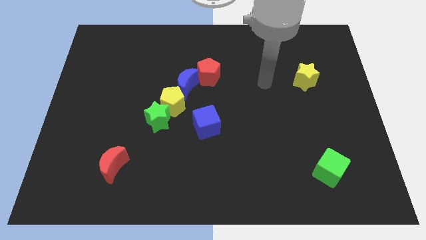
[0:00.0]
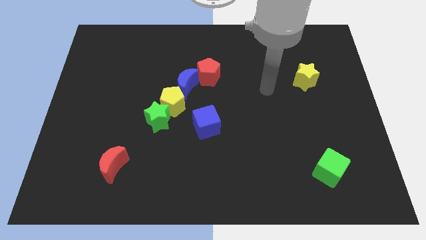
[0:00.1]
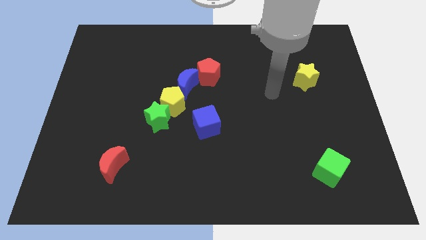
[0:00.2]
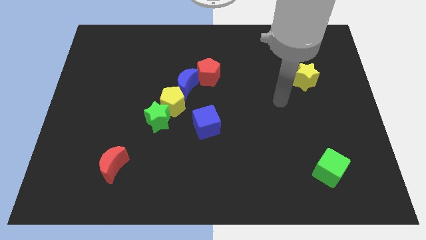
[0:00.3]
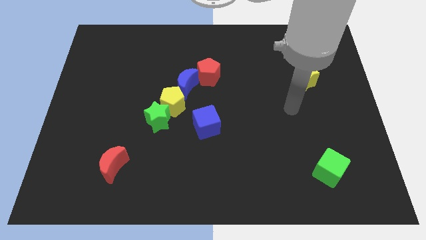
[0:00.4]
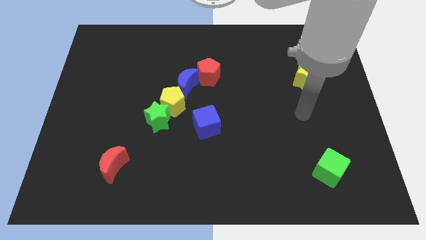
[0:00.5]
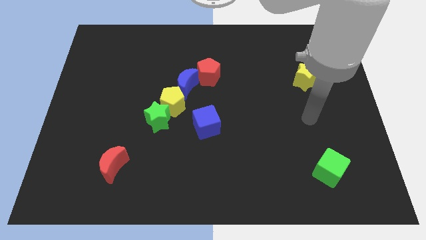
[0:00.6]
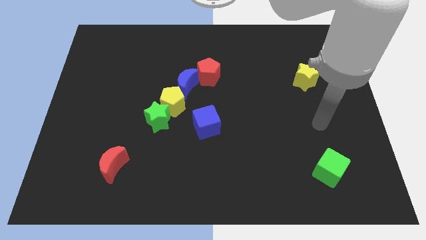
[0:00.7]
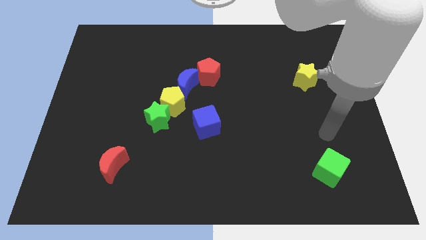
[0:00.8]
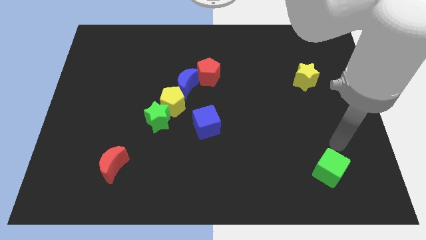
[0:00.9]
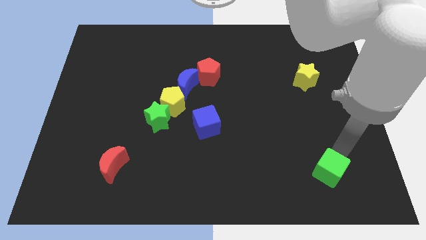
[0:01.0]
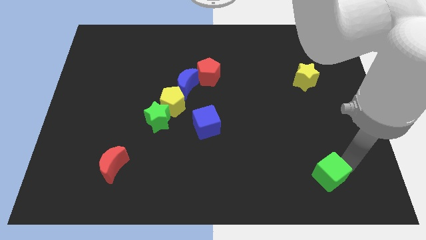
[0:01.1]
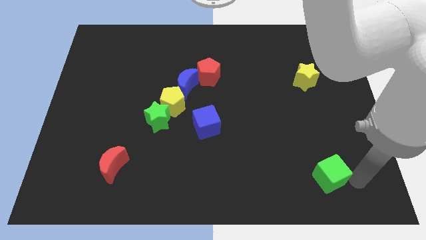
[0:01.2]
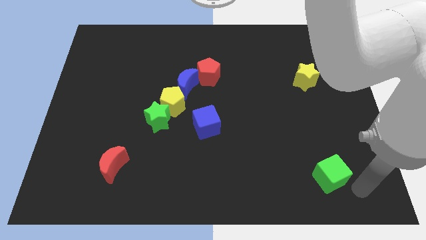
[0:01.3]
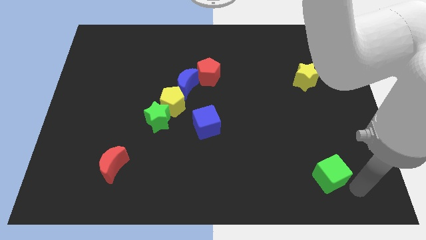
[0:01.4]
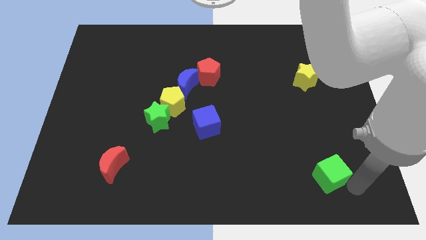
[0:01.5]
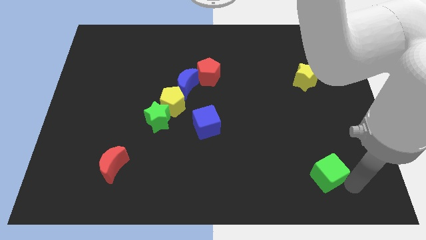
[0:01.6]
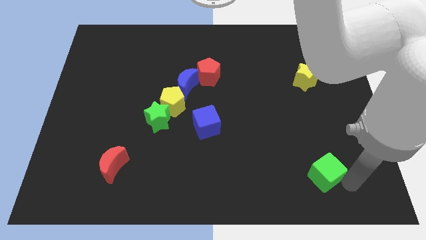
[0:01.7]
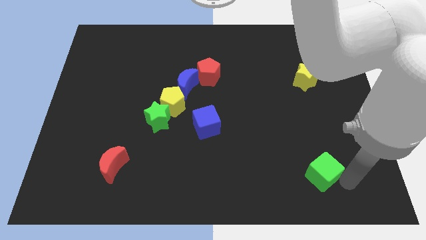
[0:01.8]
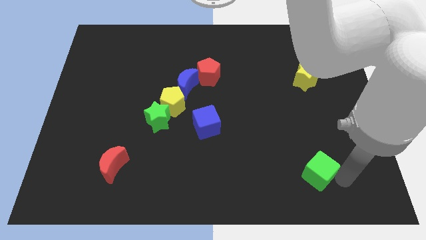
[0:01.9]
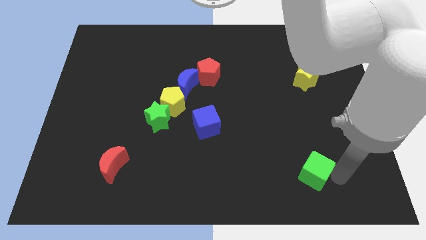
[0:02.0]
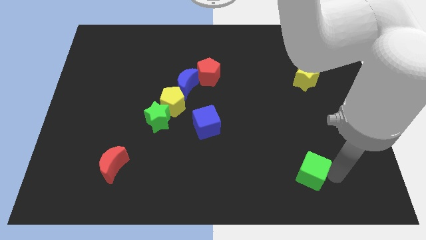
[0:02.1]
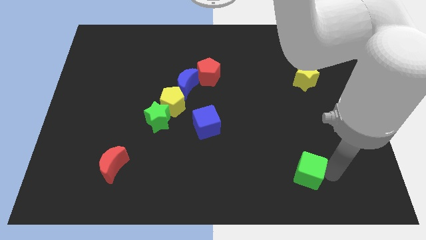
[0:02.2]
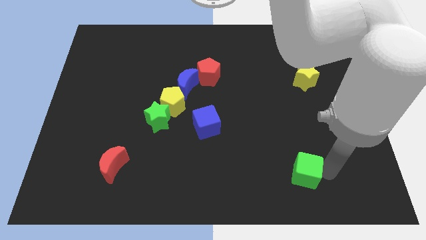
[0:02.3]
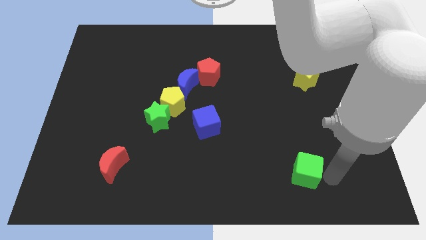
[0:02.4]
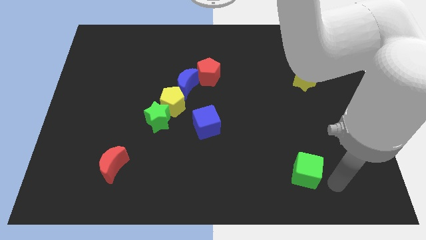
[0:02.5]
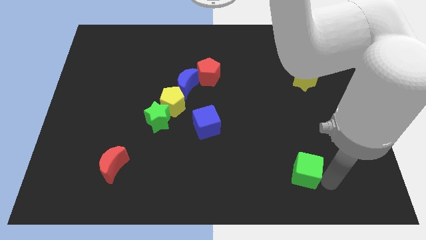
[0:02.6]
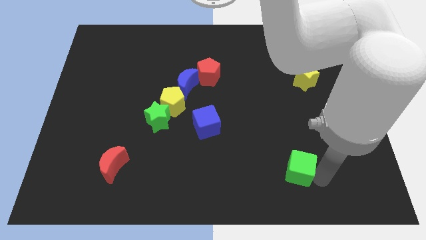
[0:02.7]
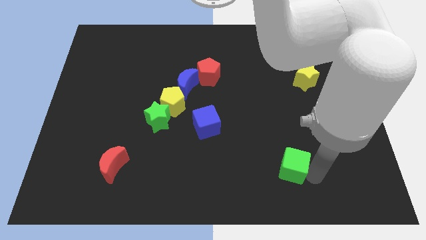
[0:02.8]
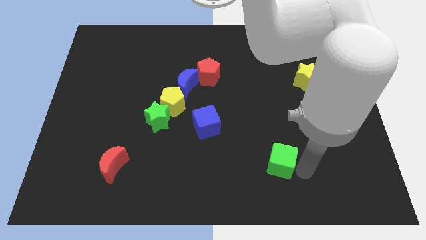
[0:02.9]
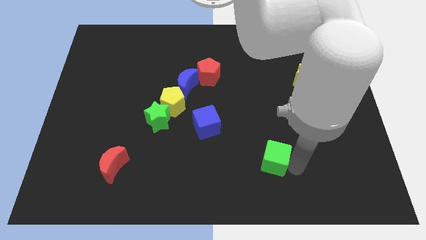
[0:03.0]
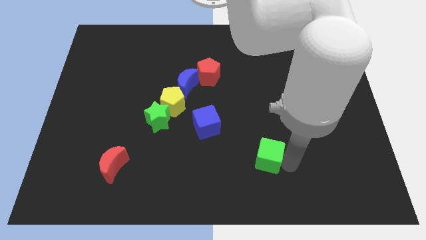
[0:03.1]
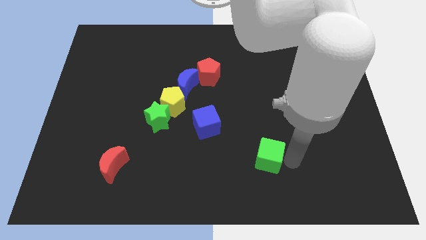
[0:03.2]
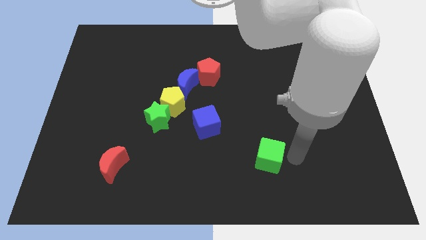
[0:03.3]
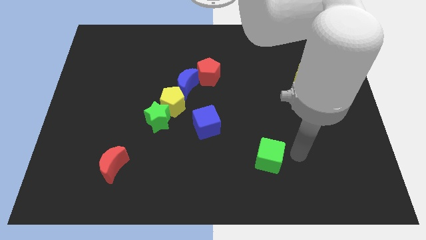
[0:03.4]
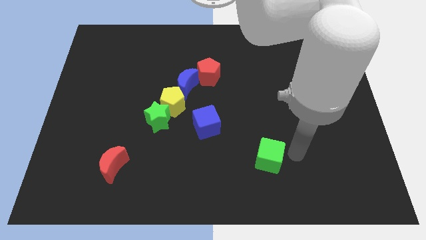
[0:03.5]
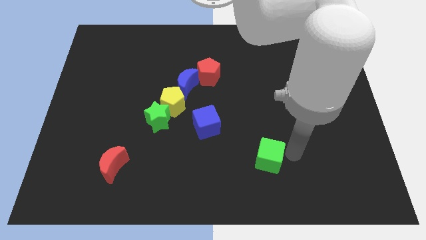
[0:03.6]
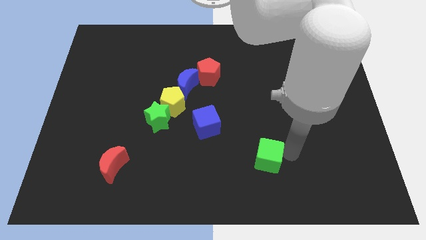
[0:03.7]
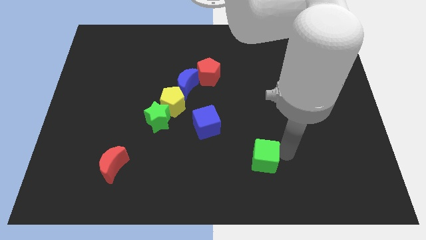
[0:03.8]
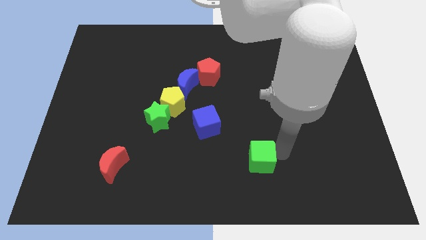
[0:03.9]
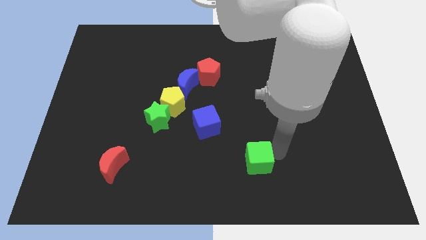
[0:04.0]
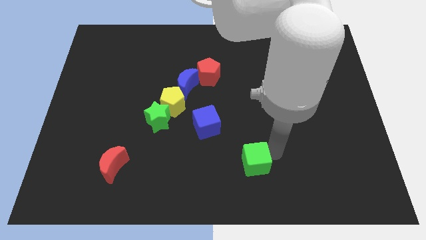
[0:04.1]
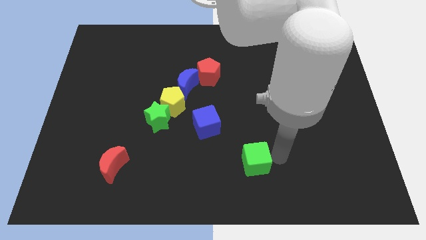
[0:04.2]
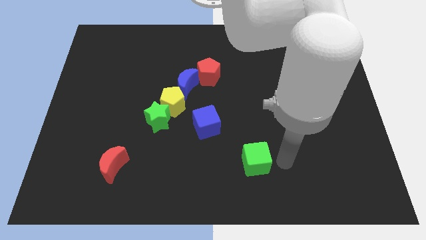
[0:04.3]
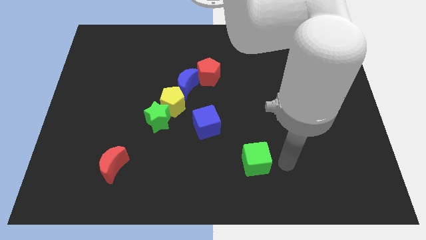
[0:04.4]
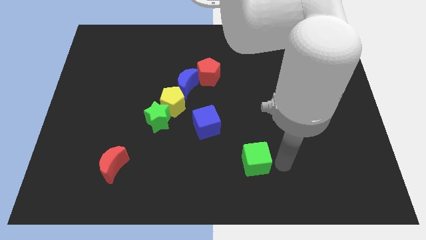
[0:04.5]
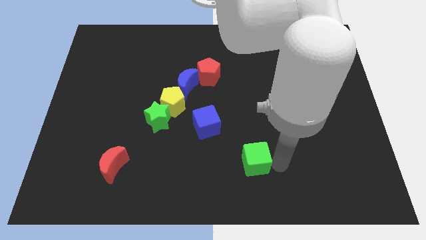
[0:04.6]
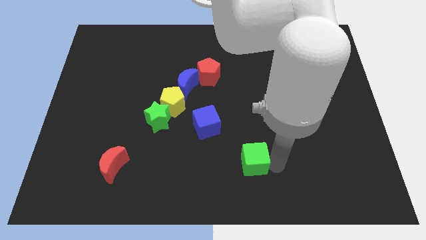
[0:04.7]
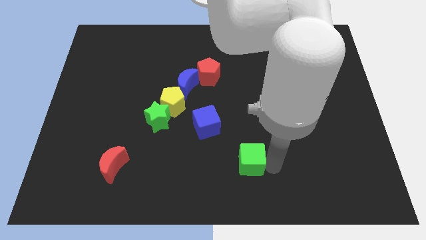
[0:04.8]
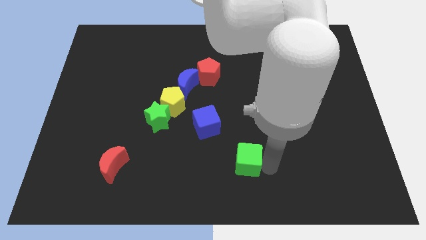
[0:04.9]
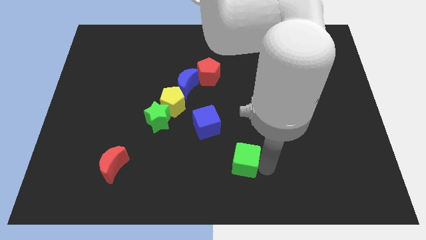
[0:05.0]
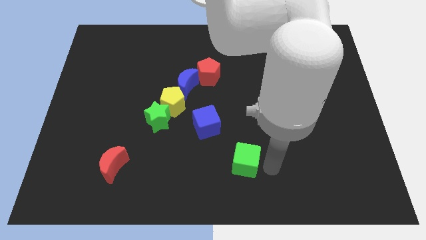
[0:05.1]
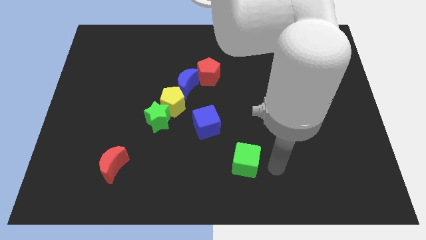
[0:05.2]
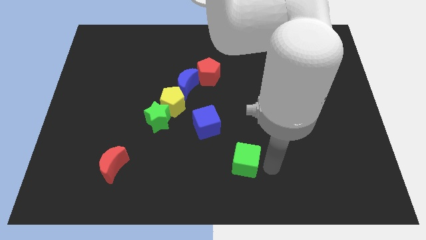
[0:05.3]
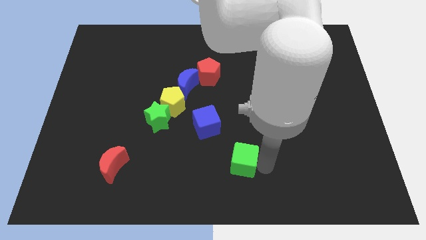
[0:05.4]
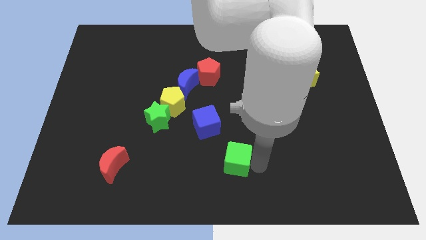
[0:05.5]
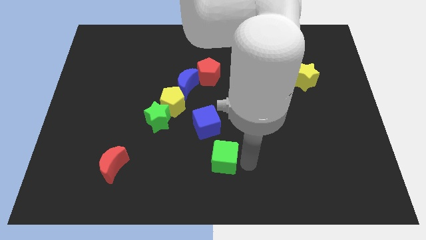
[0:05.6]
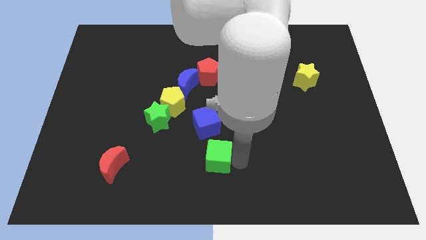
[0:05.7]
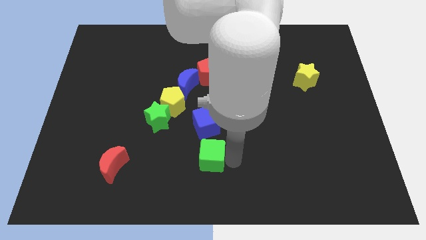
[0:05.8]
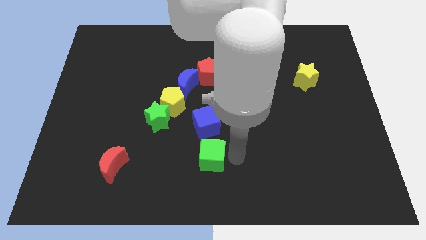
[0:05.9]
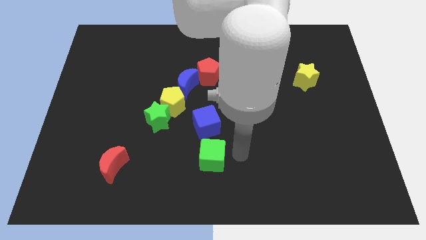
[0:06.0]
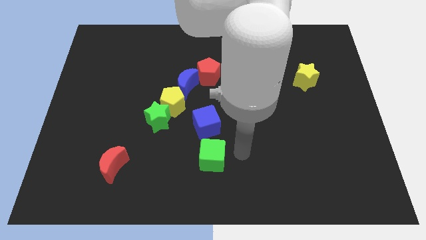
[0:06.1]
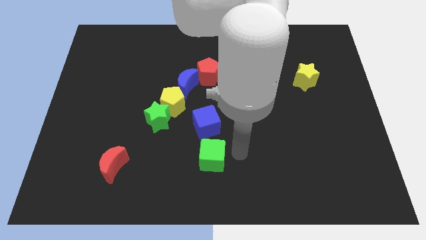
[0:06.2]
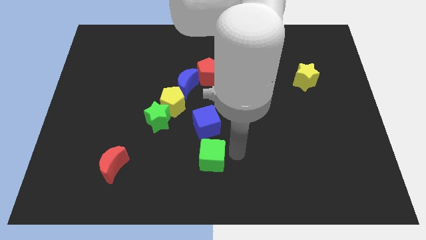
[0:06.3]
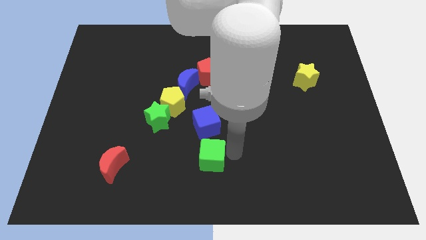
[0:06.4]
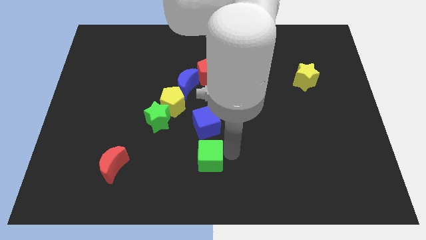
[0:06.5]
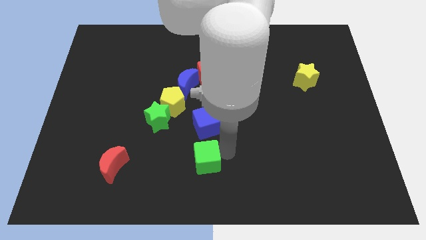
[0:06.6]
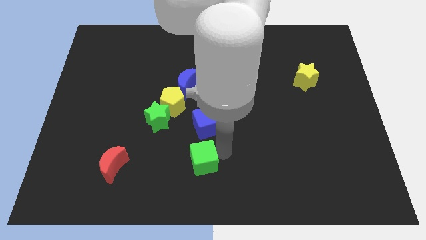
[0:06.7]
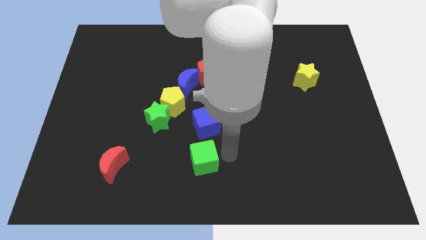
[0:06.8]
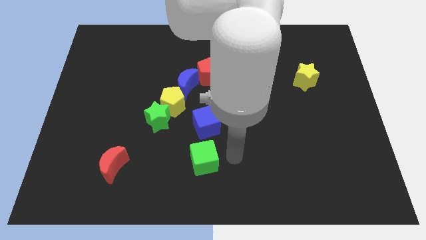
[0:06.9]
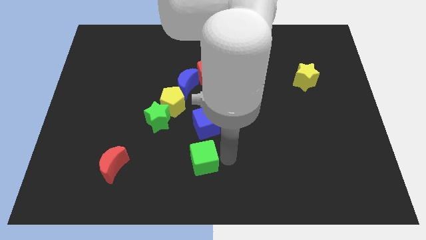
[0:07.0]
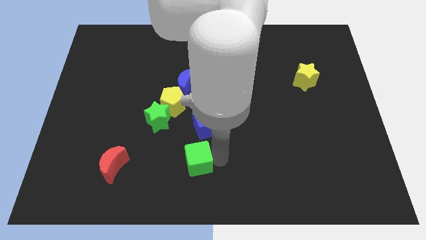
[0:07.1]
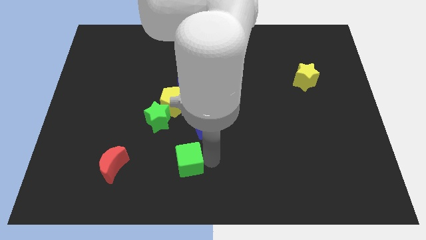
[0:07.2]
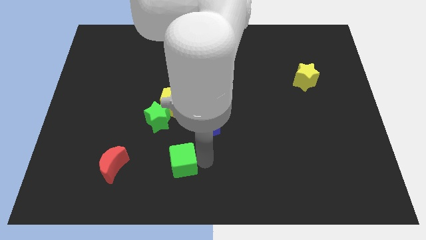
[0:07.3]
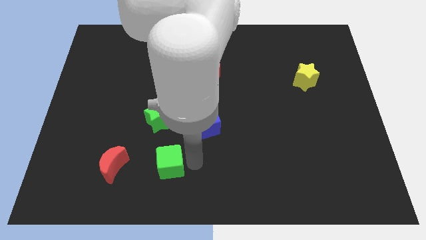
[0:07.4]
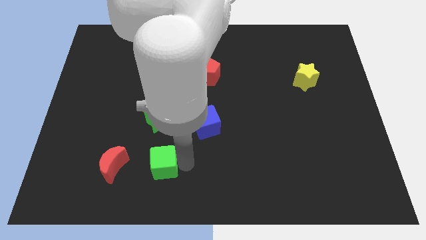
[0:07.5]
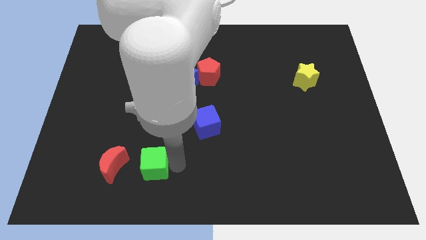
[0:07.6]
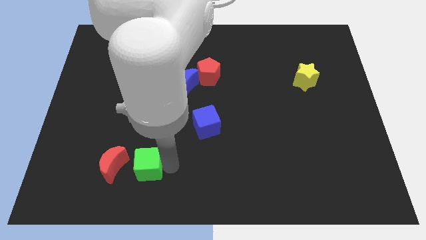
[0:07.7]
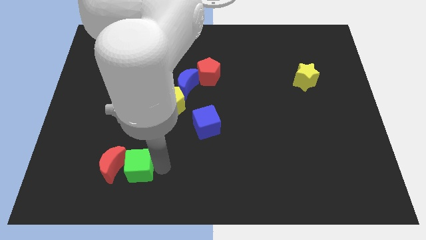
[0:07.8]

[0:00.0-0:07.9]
move the green cube next to the red moon
